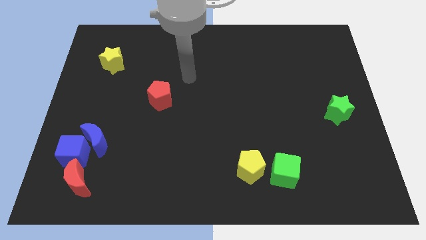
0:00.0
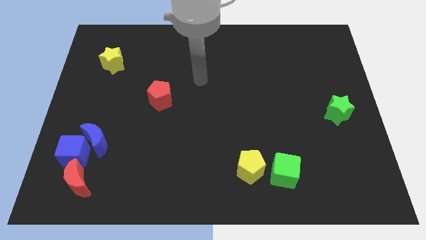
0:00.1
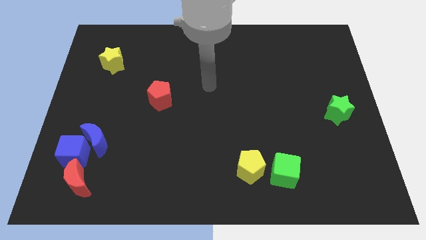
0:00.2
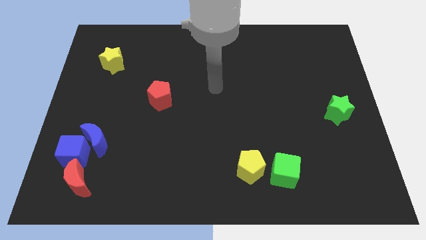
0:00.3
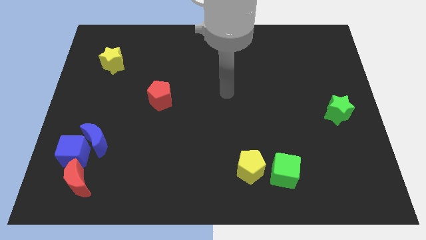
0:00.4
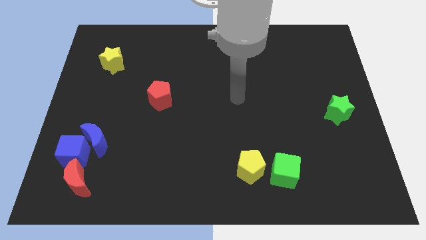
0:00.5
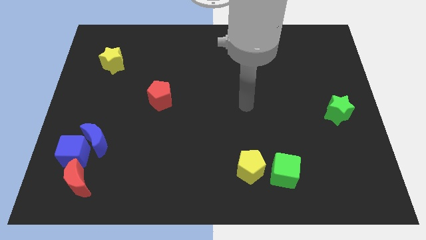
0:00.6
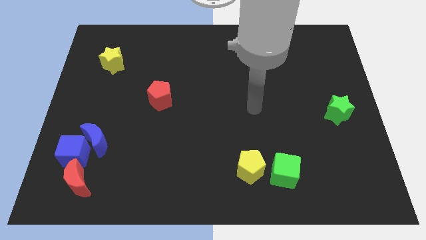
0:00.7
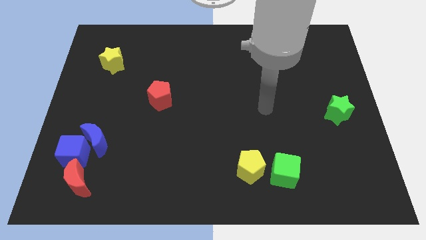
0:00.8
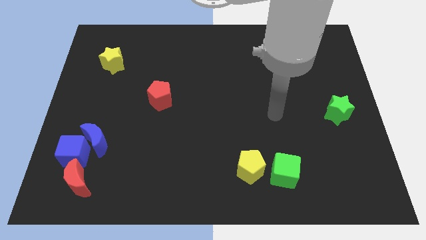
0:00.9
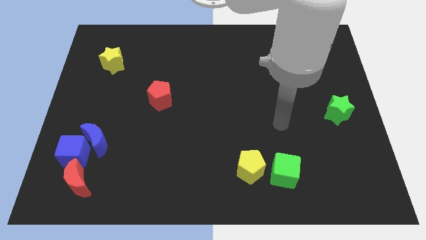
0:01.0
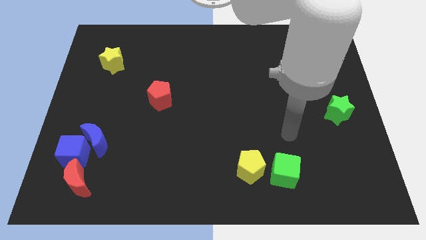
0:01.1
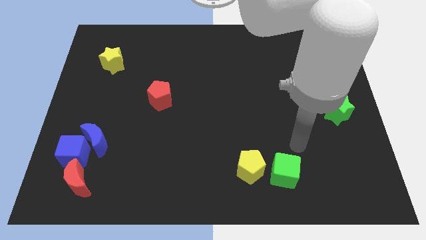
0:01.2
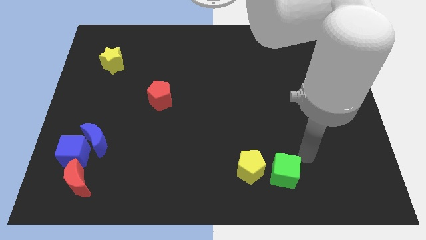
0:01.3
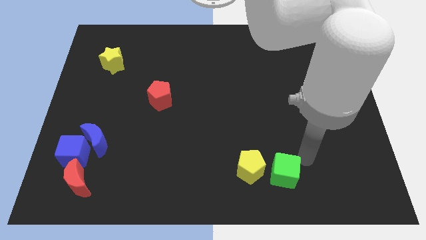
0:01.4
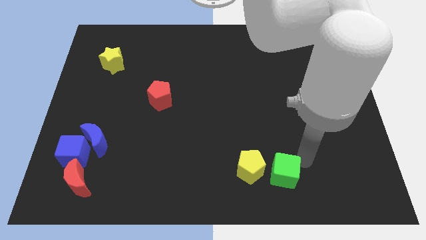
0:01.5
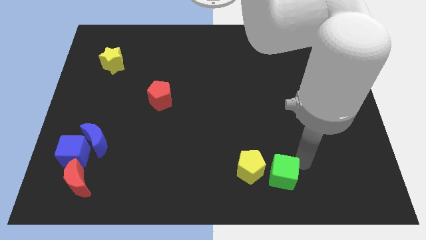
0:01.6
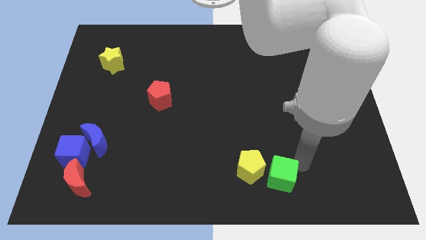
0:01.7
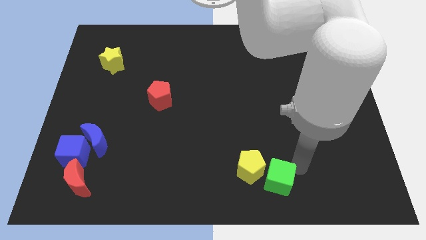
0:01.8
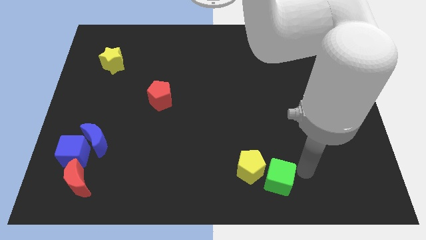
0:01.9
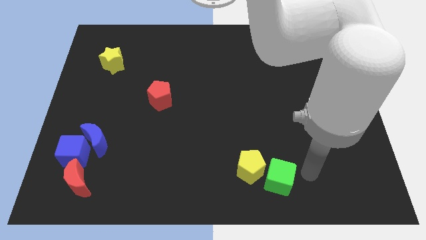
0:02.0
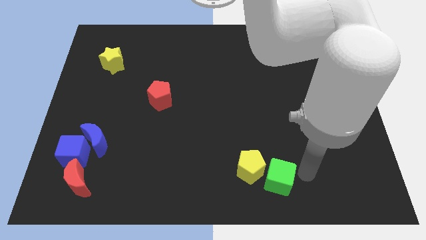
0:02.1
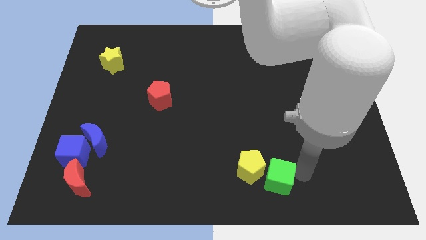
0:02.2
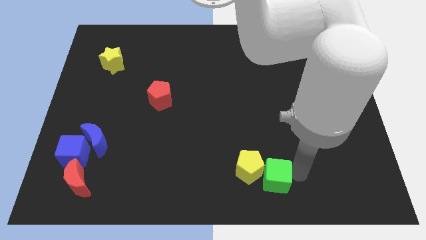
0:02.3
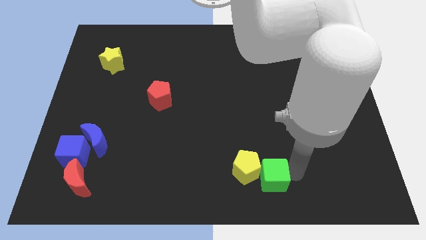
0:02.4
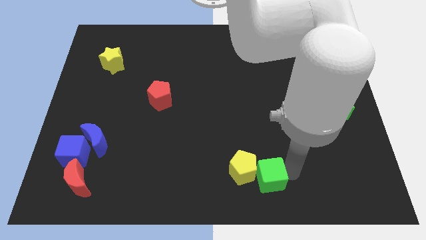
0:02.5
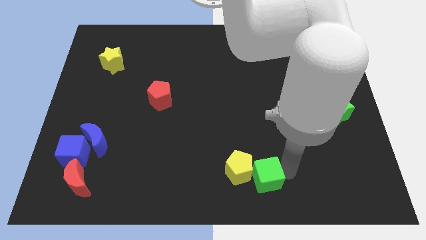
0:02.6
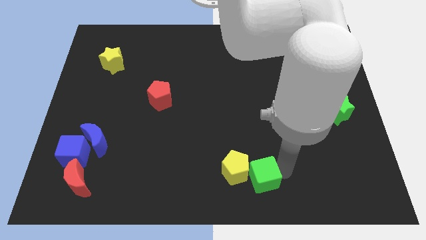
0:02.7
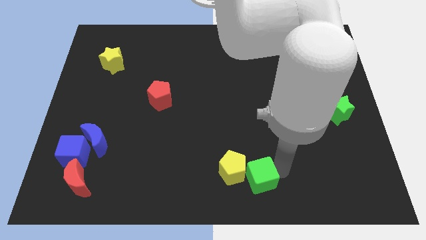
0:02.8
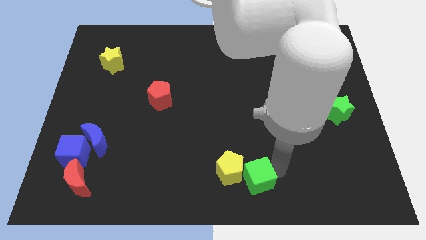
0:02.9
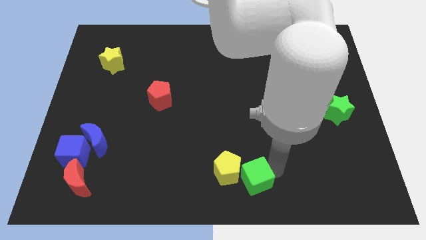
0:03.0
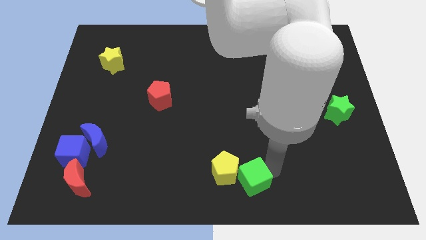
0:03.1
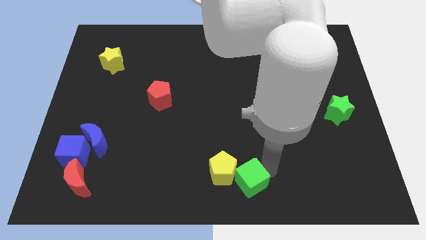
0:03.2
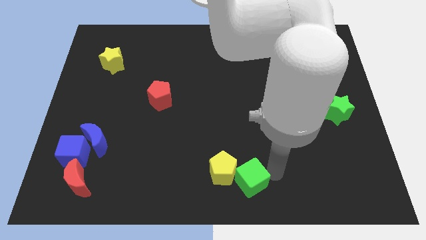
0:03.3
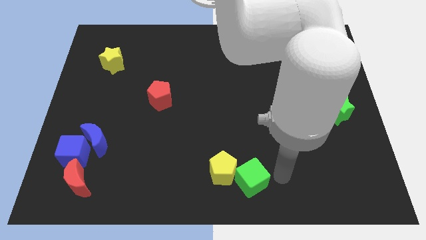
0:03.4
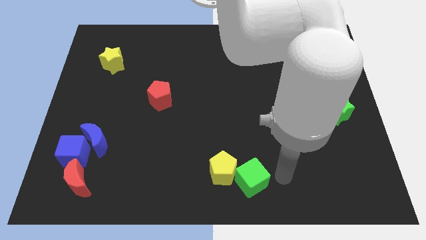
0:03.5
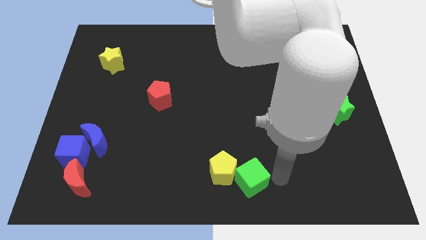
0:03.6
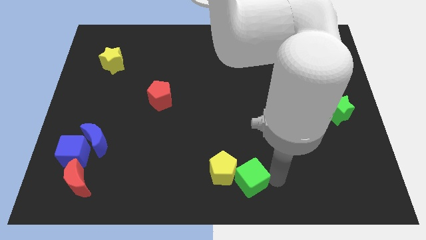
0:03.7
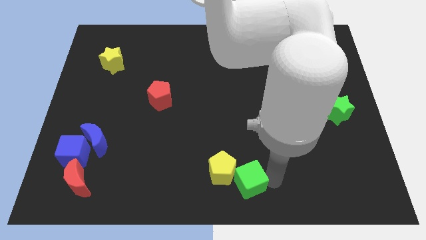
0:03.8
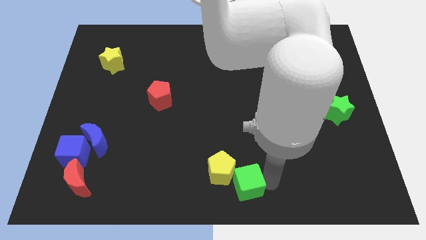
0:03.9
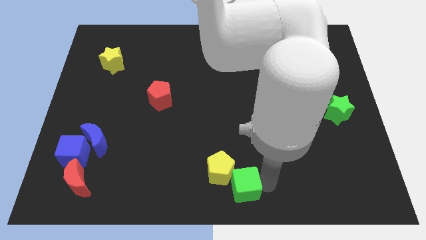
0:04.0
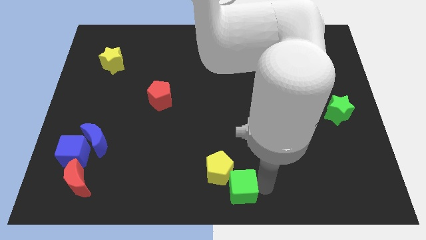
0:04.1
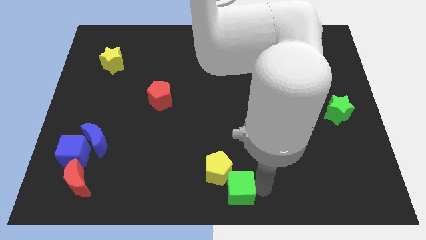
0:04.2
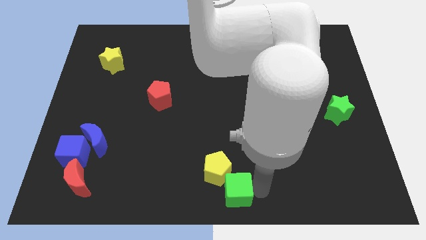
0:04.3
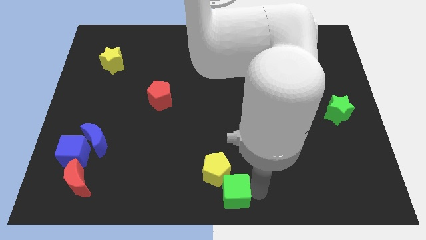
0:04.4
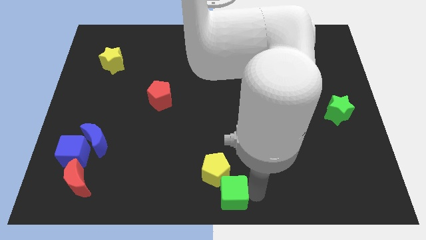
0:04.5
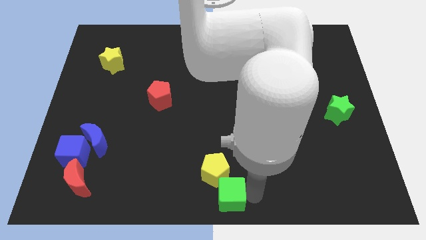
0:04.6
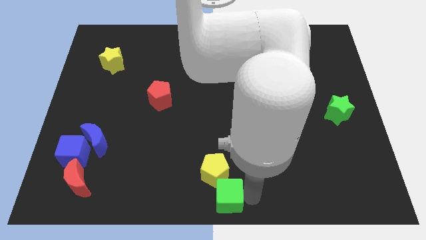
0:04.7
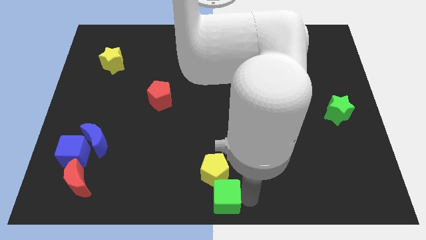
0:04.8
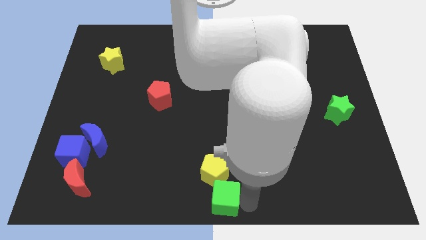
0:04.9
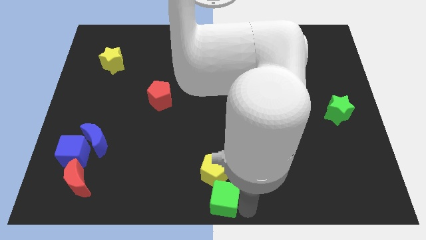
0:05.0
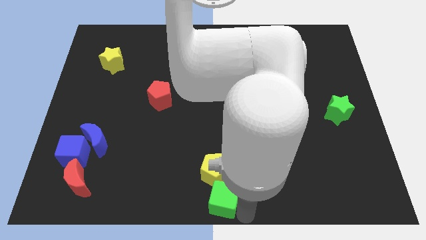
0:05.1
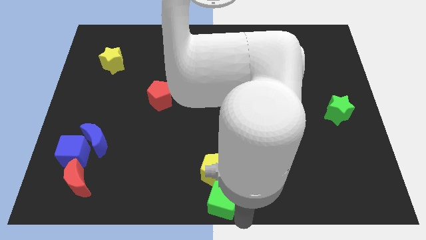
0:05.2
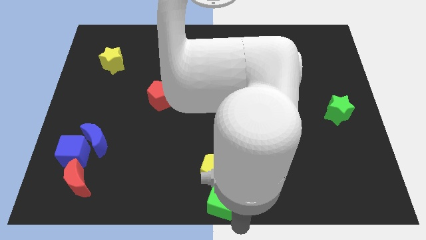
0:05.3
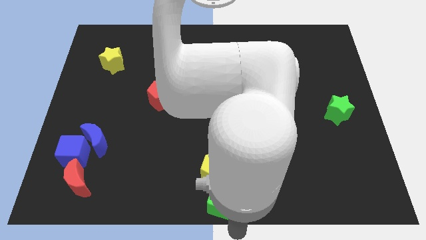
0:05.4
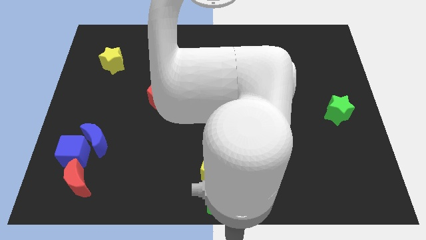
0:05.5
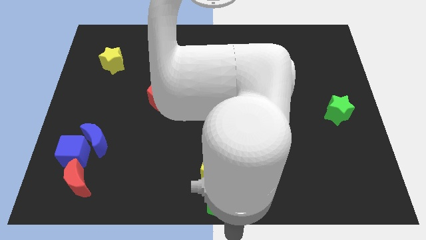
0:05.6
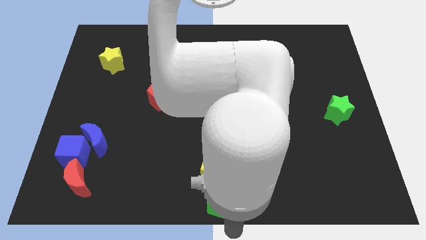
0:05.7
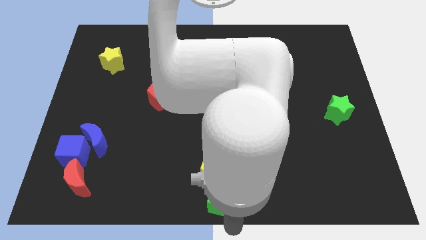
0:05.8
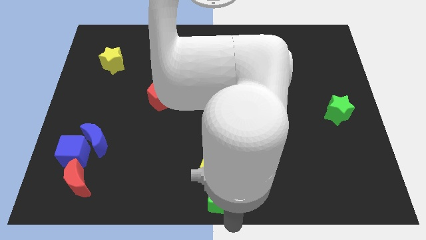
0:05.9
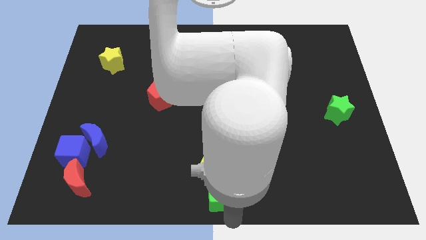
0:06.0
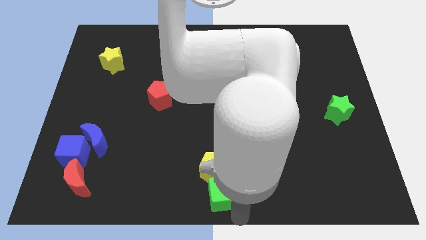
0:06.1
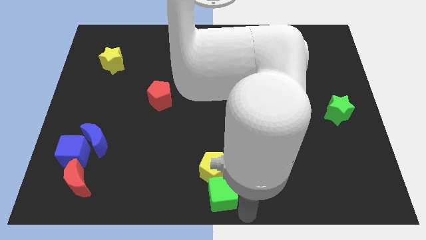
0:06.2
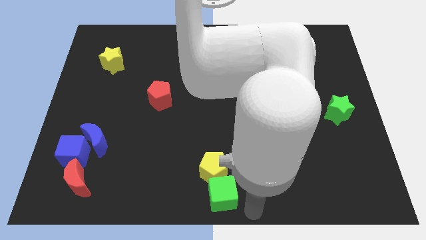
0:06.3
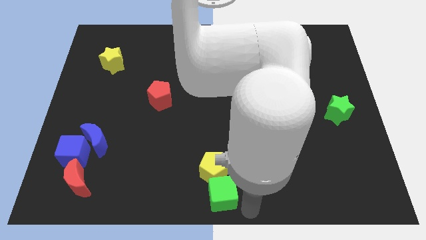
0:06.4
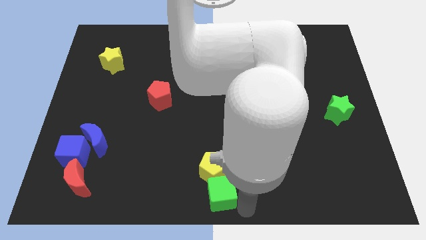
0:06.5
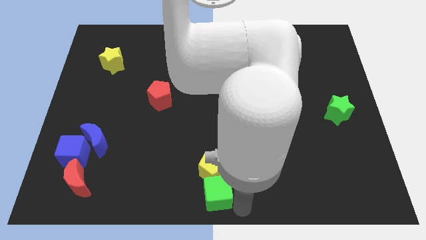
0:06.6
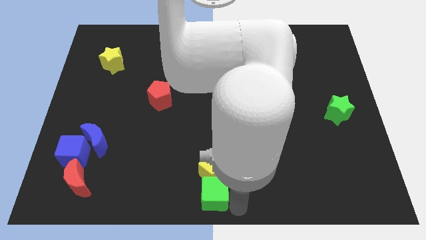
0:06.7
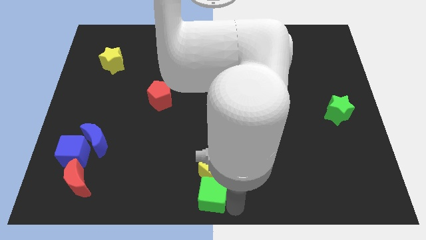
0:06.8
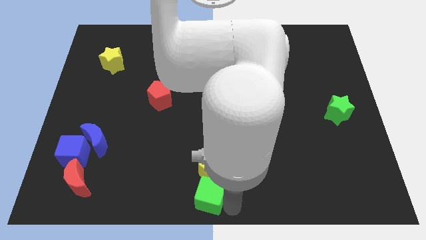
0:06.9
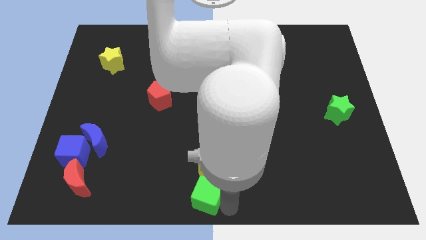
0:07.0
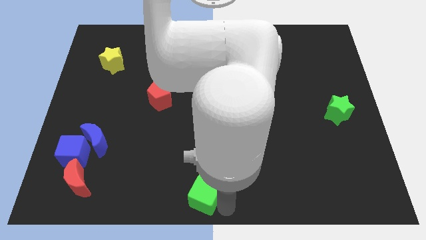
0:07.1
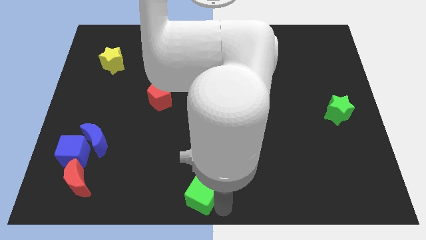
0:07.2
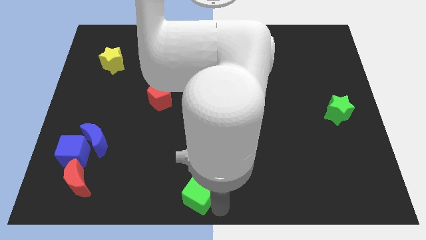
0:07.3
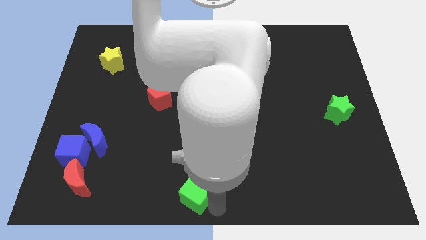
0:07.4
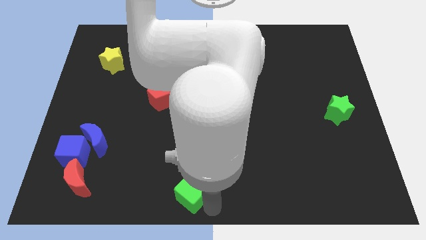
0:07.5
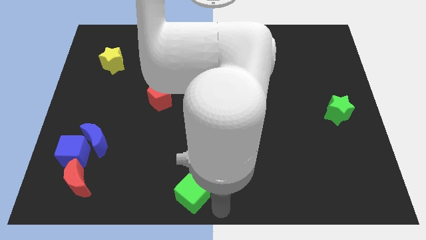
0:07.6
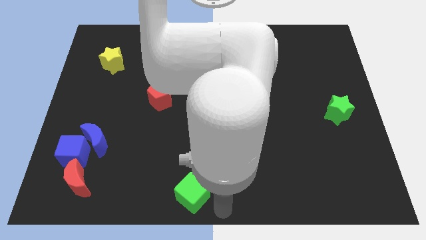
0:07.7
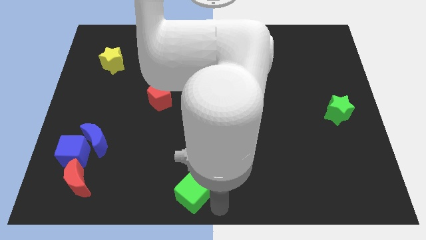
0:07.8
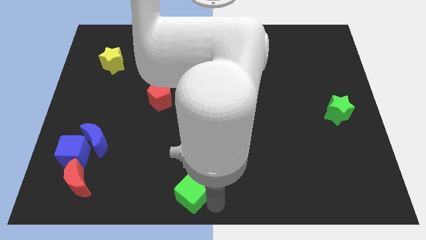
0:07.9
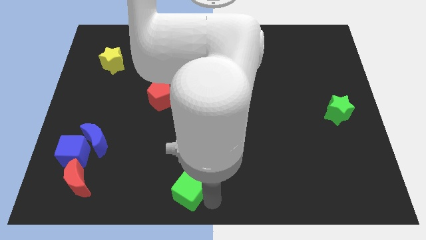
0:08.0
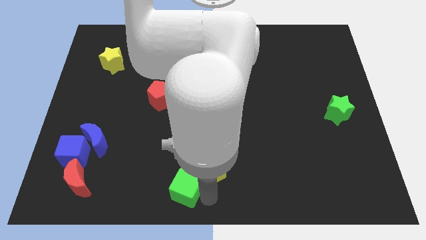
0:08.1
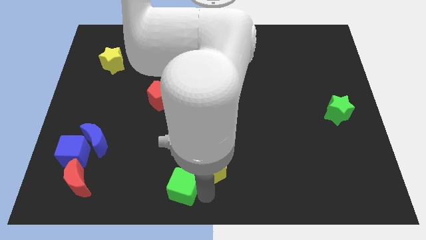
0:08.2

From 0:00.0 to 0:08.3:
move the green cube to the left
